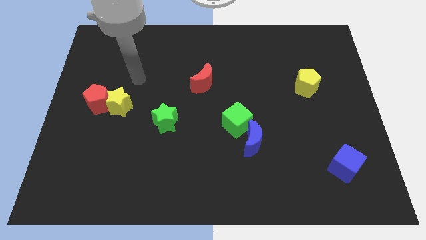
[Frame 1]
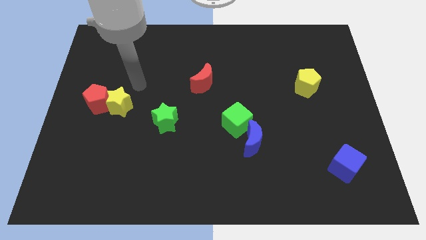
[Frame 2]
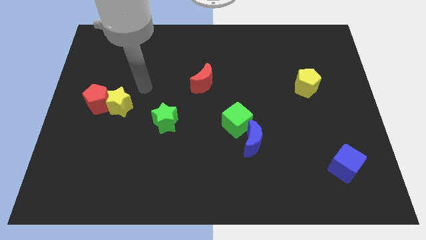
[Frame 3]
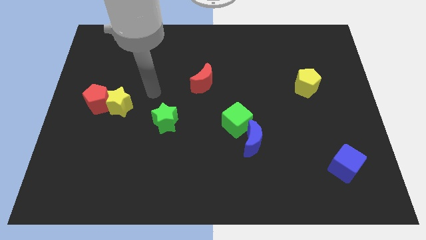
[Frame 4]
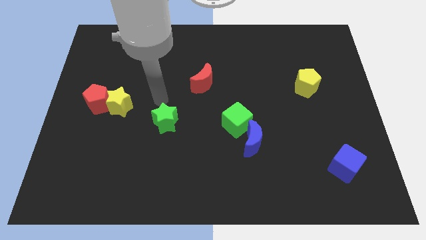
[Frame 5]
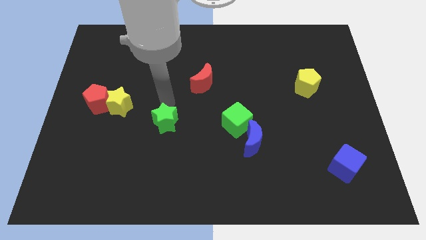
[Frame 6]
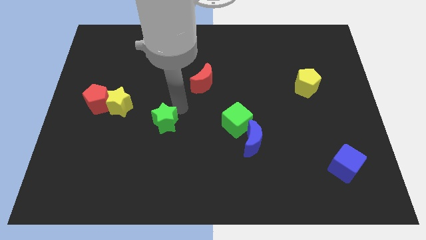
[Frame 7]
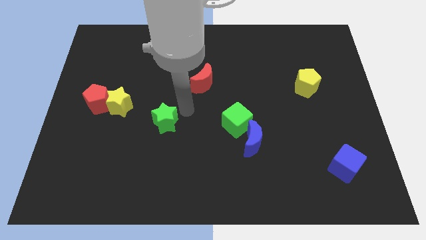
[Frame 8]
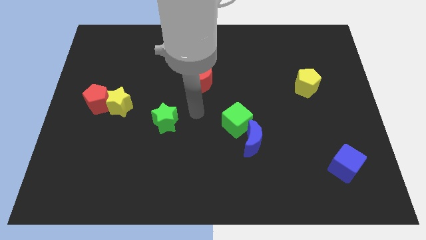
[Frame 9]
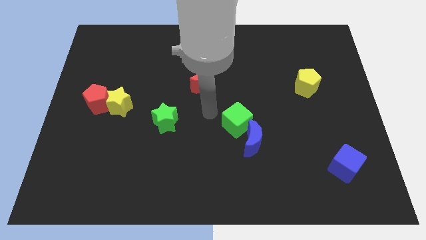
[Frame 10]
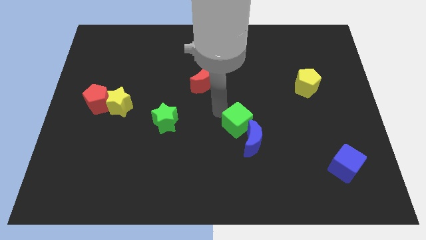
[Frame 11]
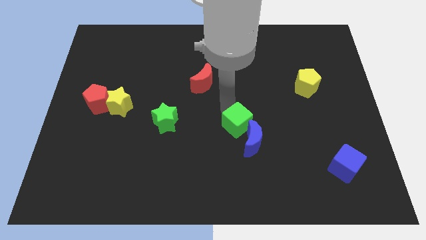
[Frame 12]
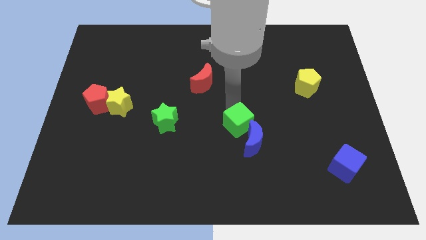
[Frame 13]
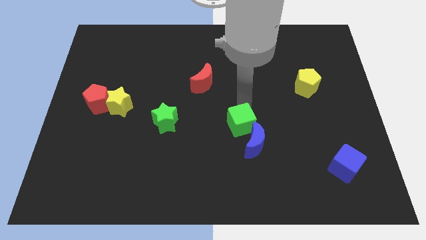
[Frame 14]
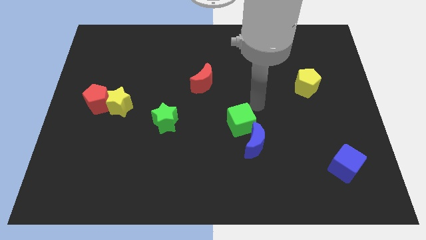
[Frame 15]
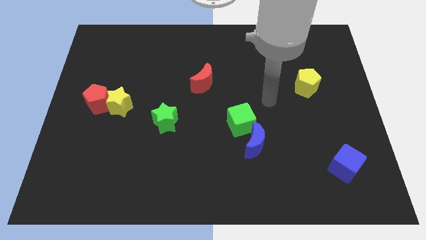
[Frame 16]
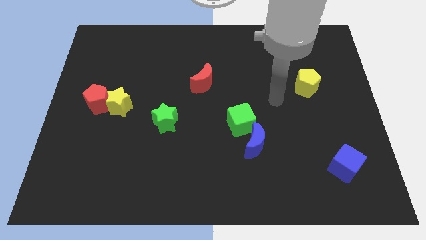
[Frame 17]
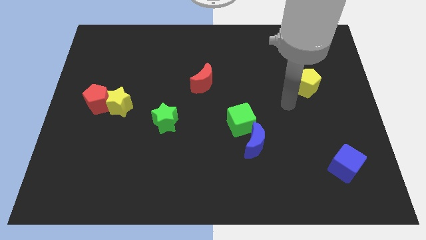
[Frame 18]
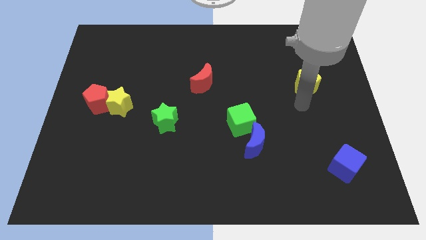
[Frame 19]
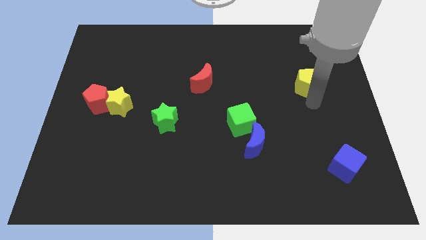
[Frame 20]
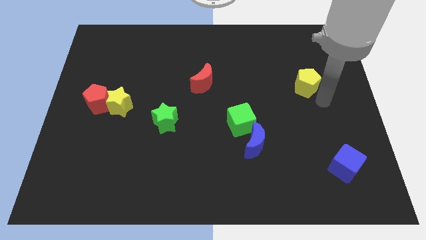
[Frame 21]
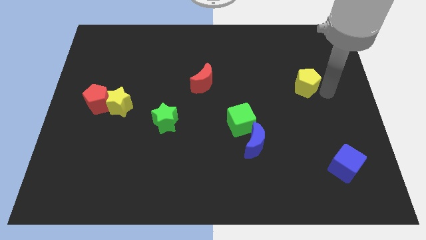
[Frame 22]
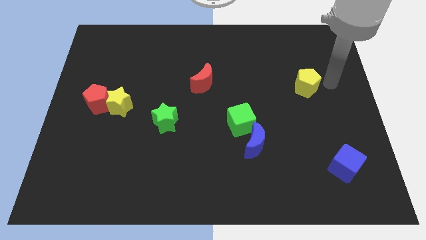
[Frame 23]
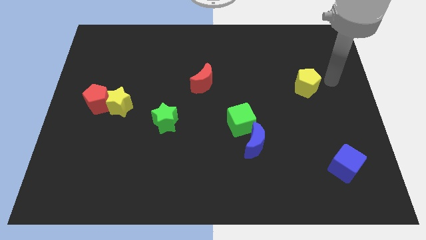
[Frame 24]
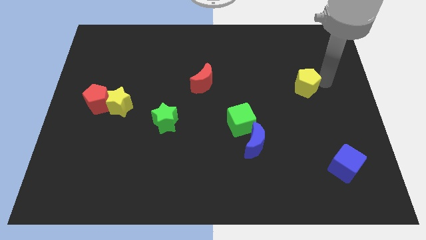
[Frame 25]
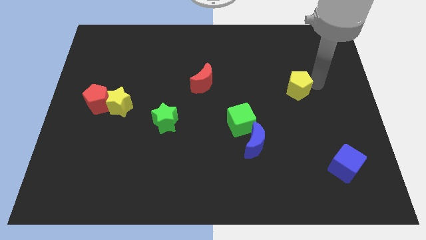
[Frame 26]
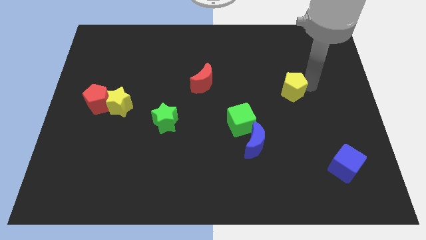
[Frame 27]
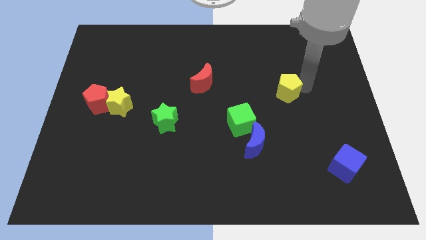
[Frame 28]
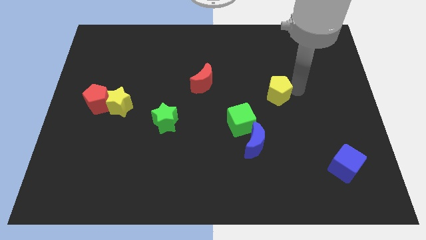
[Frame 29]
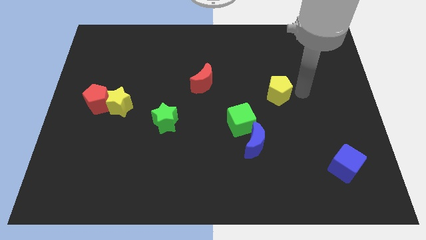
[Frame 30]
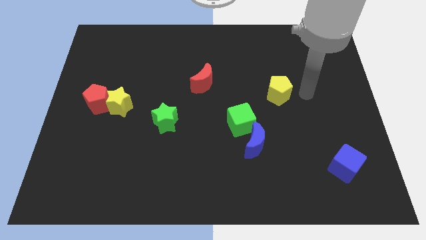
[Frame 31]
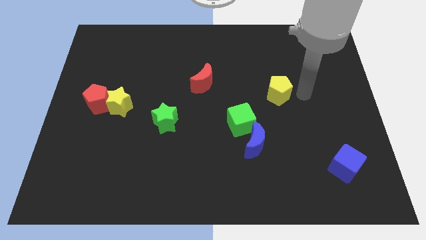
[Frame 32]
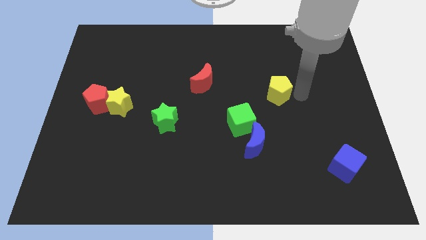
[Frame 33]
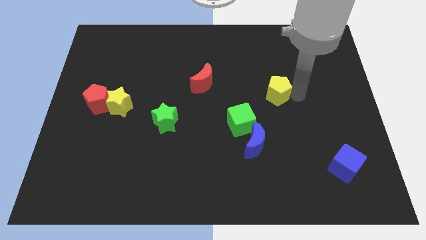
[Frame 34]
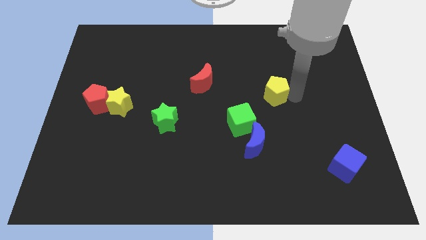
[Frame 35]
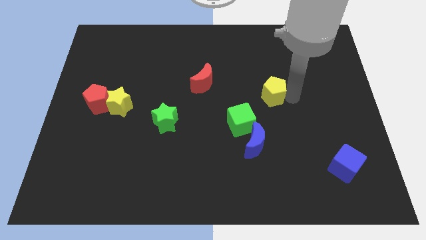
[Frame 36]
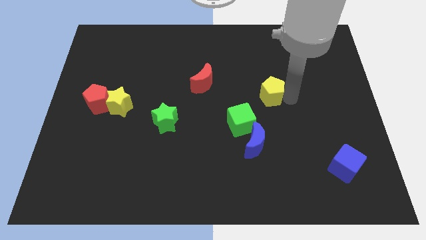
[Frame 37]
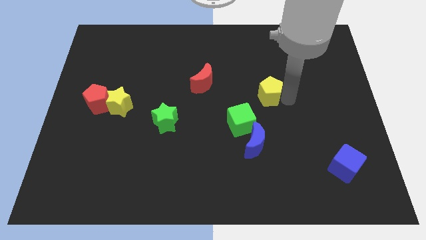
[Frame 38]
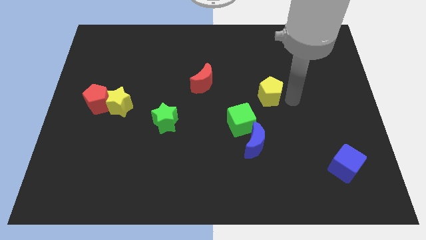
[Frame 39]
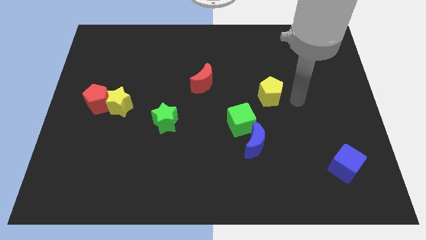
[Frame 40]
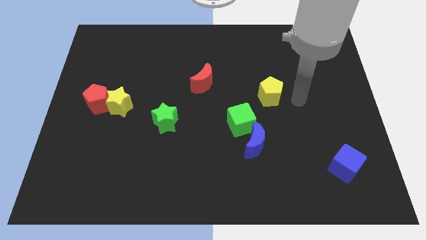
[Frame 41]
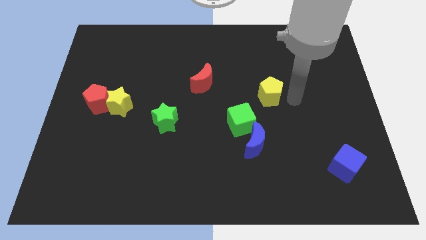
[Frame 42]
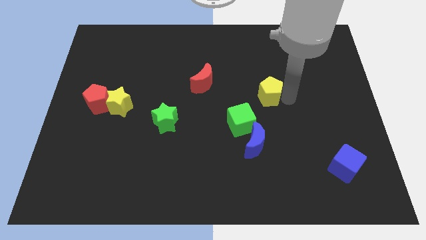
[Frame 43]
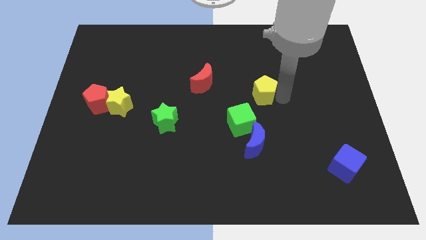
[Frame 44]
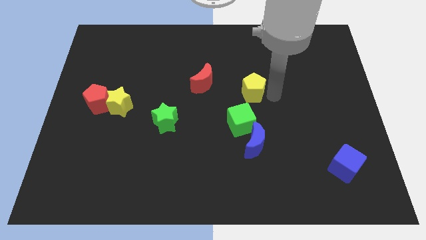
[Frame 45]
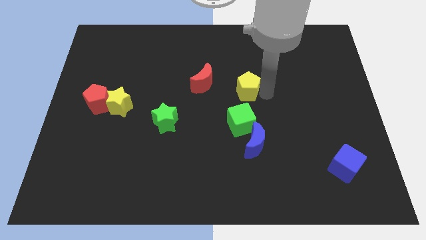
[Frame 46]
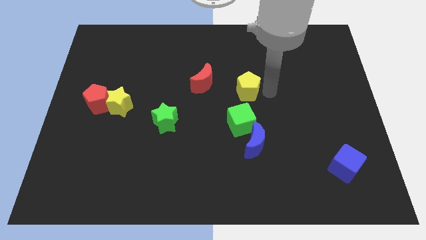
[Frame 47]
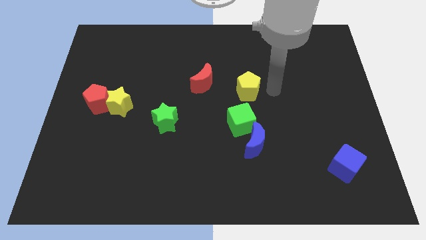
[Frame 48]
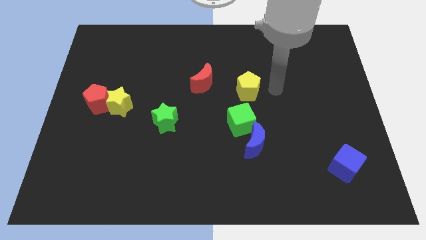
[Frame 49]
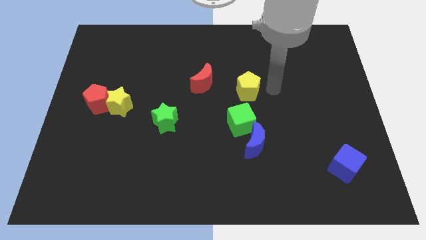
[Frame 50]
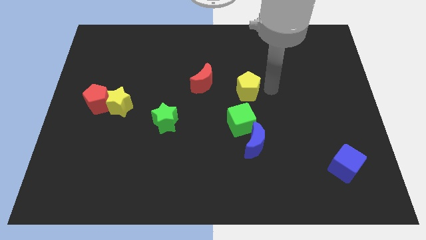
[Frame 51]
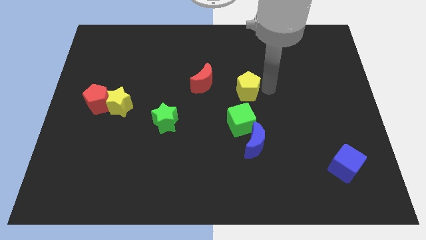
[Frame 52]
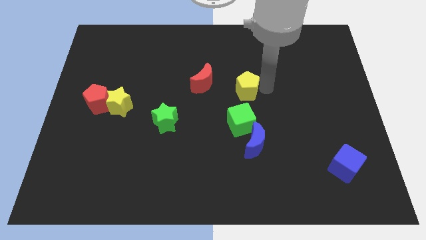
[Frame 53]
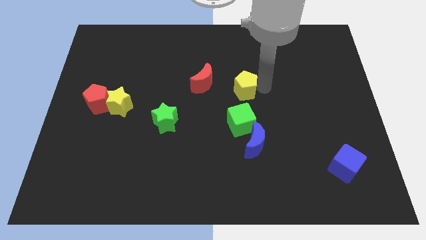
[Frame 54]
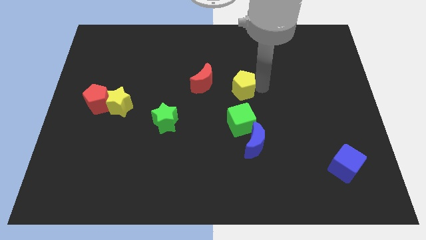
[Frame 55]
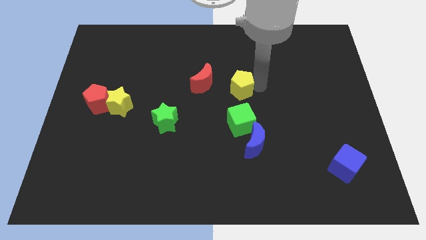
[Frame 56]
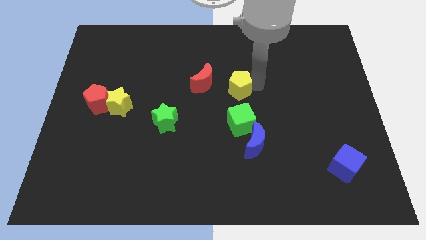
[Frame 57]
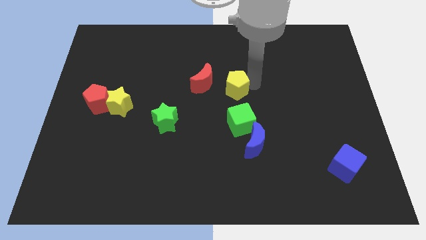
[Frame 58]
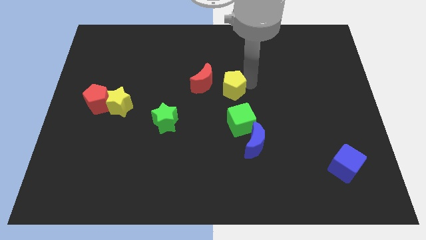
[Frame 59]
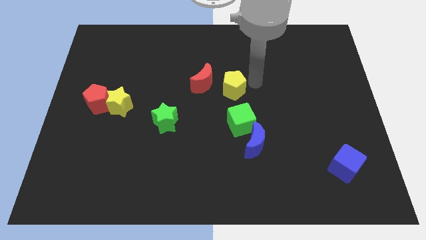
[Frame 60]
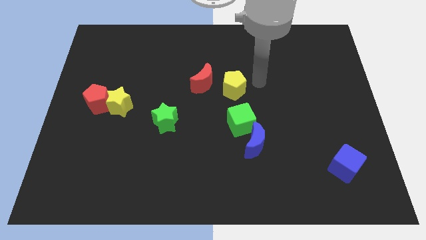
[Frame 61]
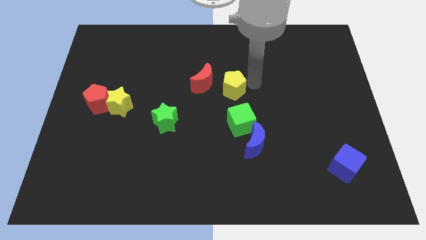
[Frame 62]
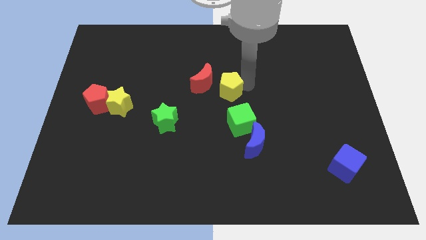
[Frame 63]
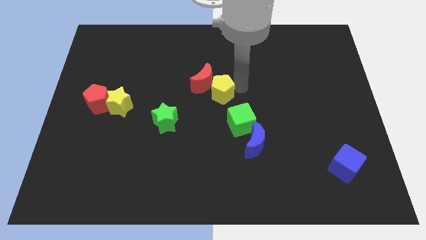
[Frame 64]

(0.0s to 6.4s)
move the yellow pentagon left

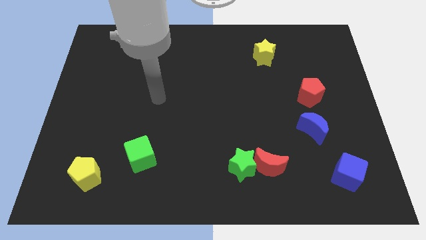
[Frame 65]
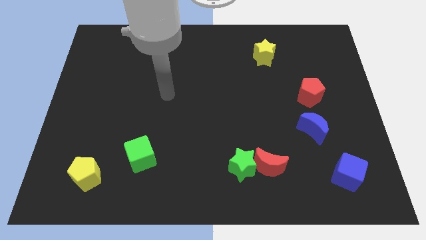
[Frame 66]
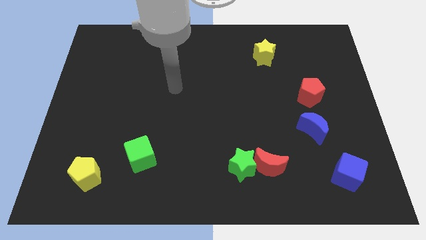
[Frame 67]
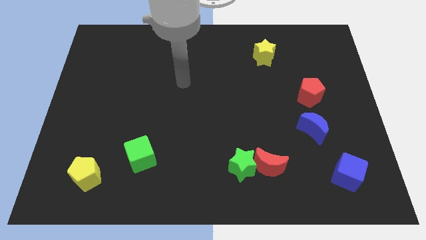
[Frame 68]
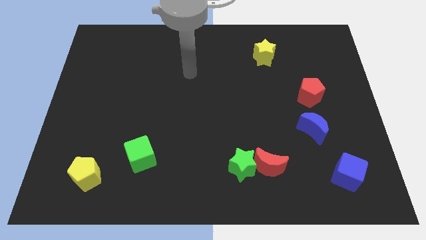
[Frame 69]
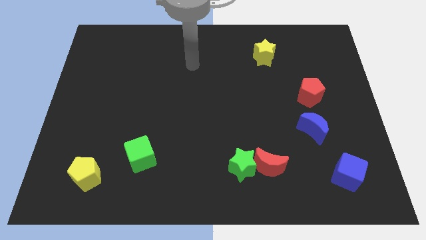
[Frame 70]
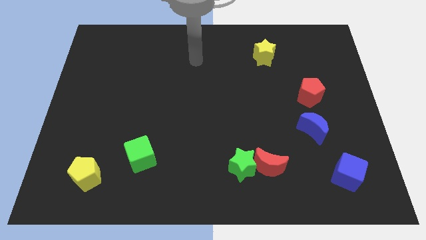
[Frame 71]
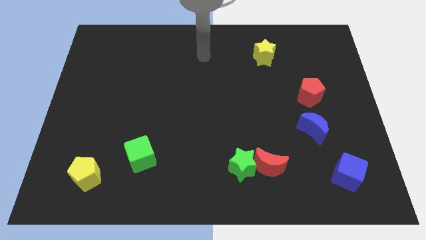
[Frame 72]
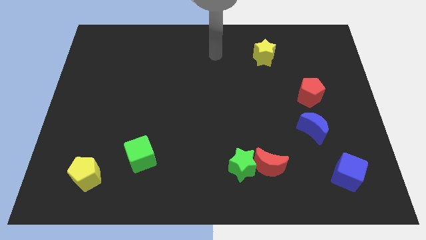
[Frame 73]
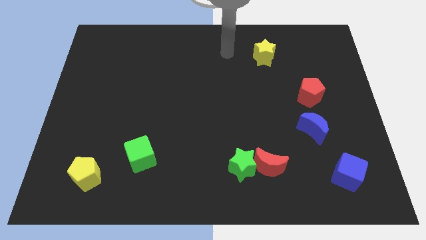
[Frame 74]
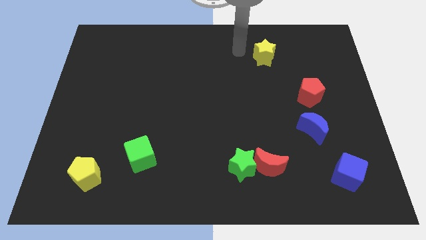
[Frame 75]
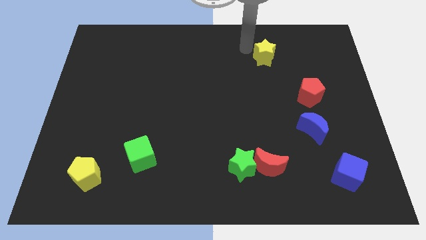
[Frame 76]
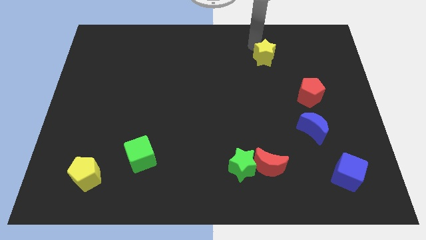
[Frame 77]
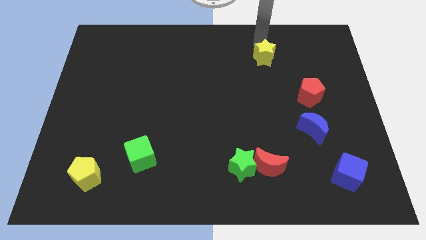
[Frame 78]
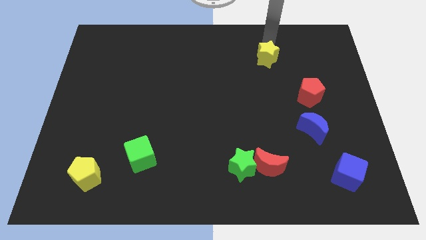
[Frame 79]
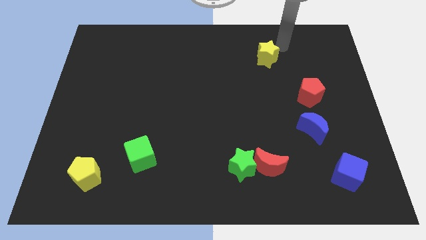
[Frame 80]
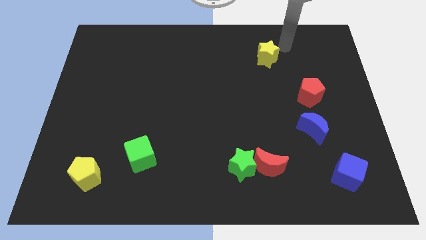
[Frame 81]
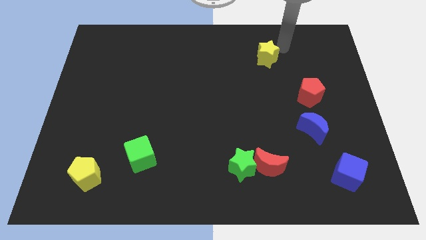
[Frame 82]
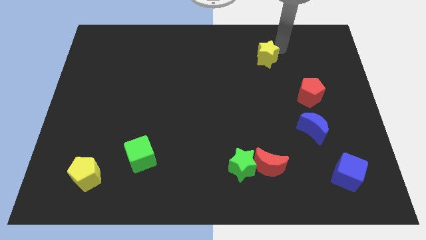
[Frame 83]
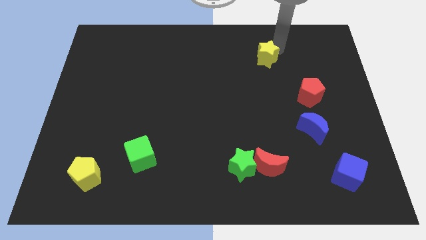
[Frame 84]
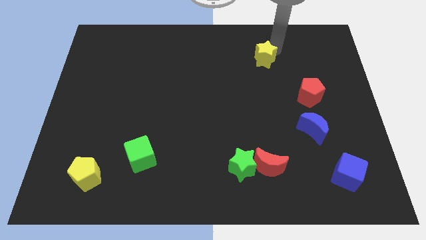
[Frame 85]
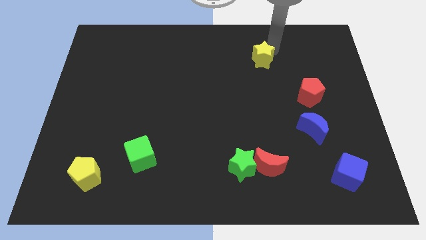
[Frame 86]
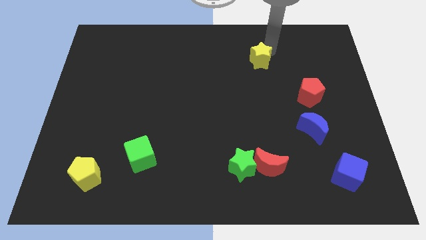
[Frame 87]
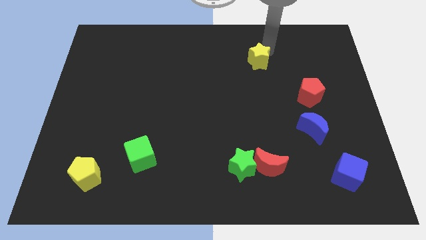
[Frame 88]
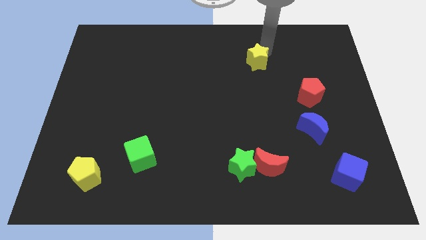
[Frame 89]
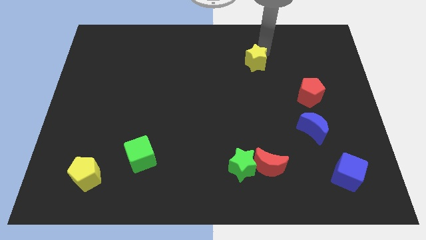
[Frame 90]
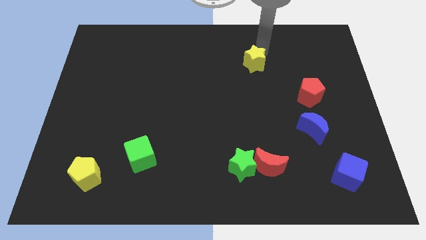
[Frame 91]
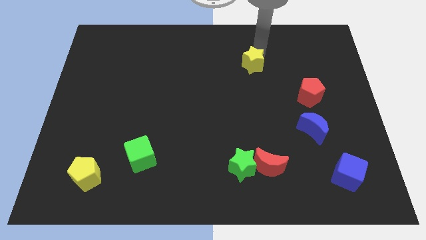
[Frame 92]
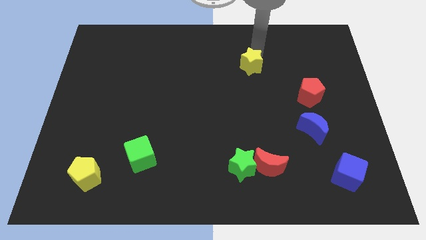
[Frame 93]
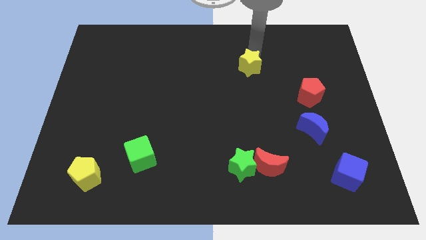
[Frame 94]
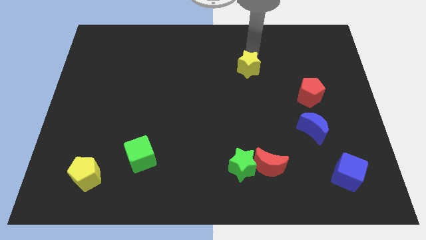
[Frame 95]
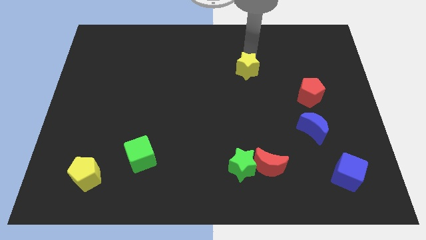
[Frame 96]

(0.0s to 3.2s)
move the yellow star diagonally down and to the left somewhat
